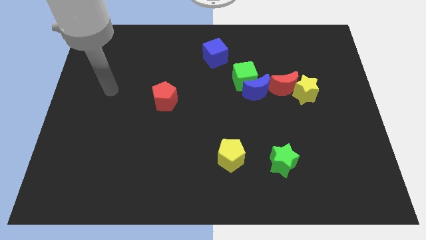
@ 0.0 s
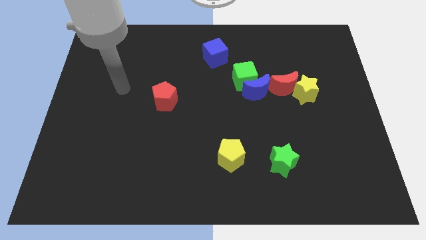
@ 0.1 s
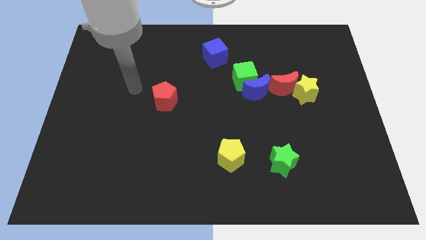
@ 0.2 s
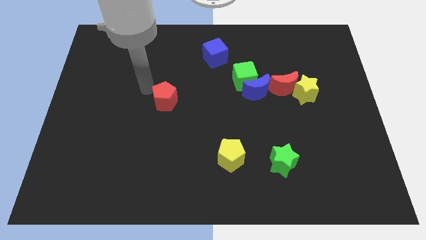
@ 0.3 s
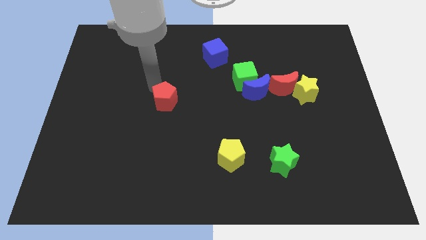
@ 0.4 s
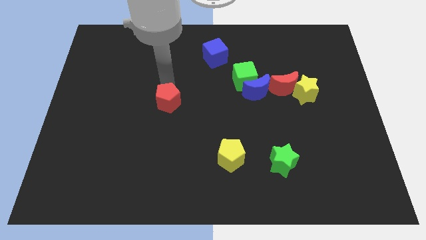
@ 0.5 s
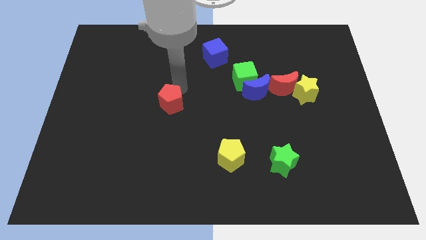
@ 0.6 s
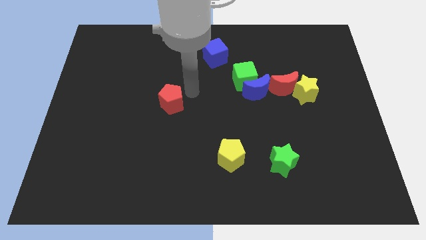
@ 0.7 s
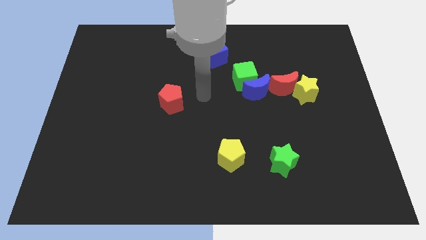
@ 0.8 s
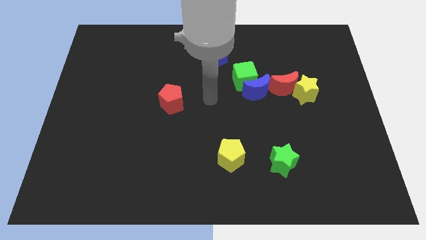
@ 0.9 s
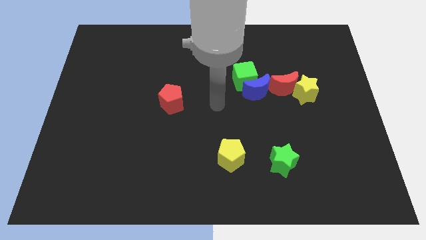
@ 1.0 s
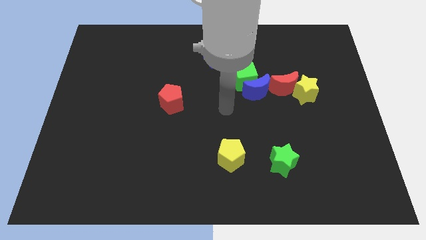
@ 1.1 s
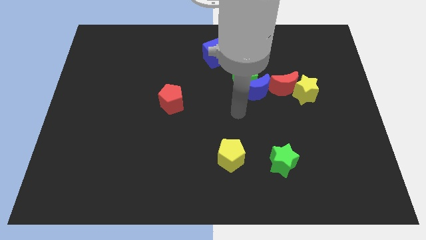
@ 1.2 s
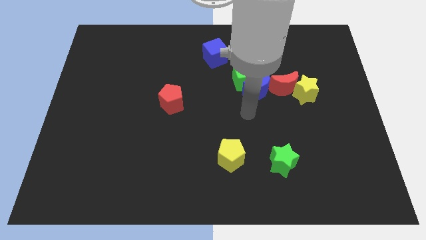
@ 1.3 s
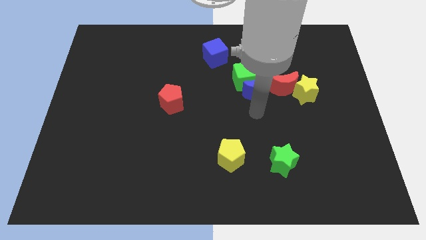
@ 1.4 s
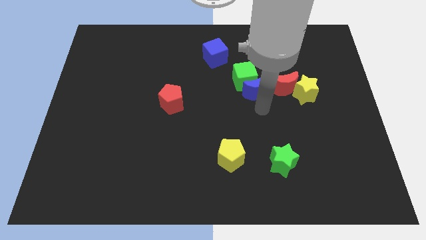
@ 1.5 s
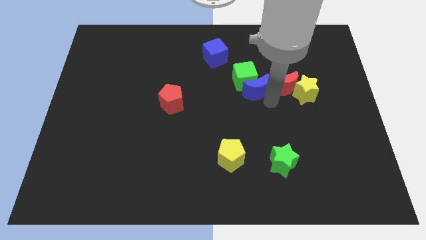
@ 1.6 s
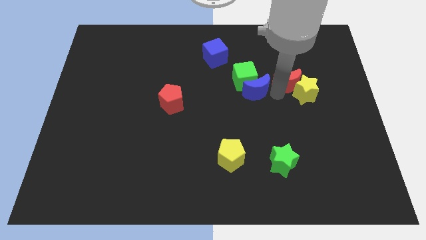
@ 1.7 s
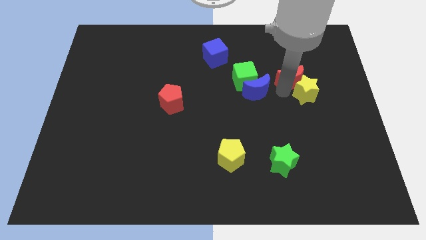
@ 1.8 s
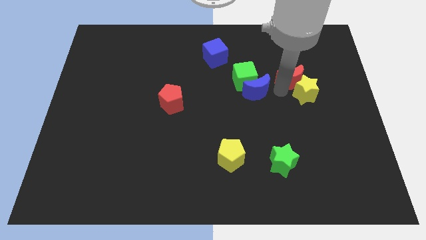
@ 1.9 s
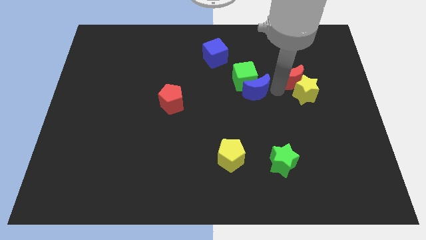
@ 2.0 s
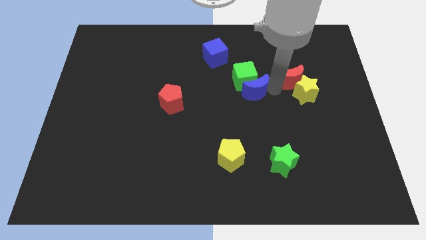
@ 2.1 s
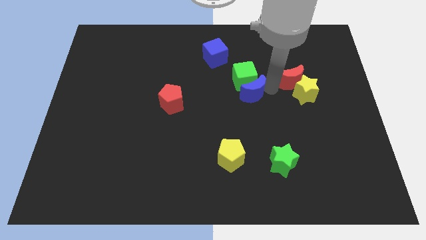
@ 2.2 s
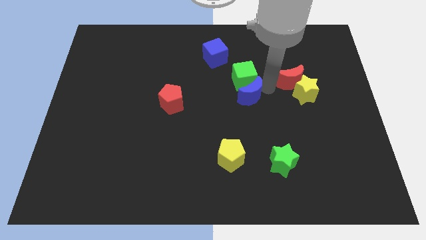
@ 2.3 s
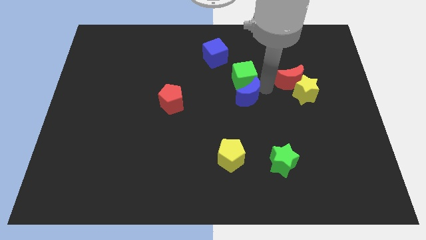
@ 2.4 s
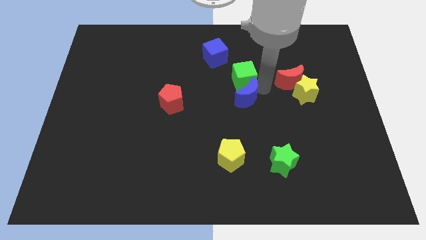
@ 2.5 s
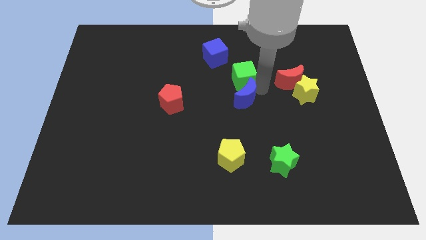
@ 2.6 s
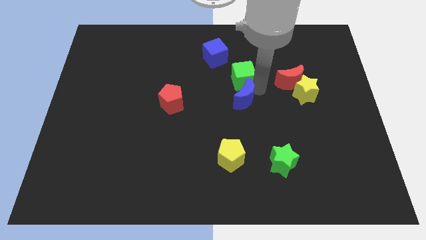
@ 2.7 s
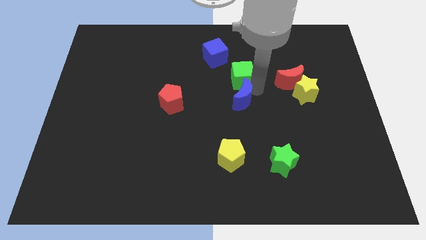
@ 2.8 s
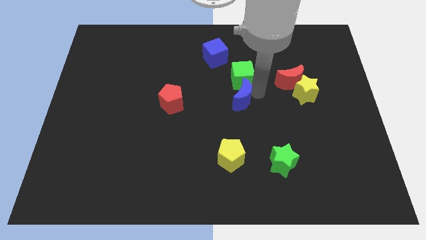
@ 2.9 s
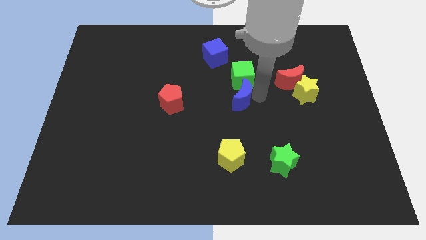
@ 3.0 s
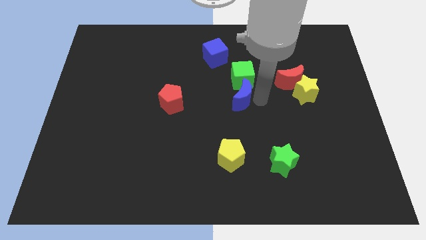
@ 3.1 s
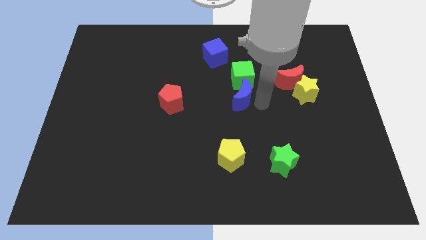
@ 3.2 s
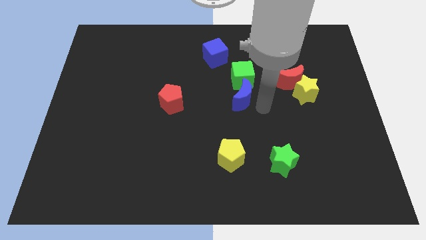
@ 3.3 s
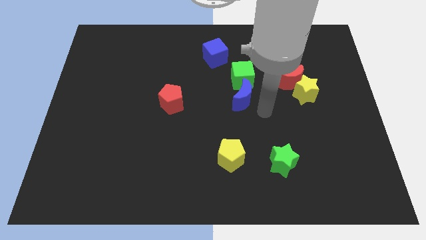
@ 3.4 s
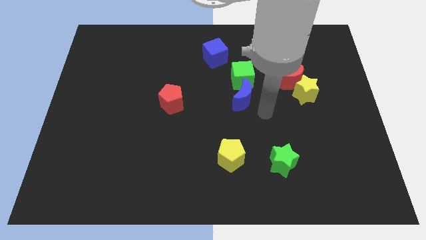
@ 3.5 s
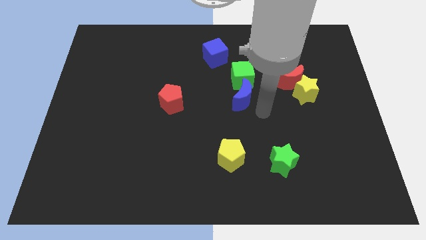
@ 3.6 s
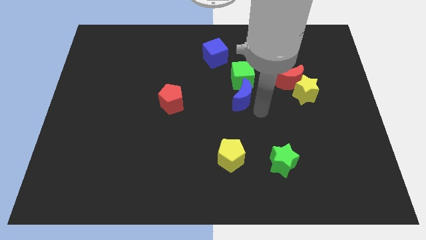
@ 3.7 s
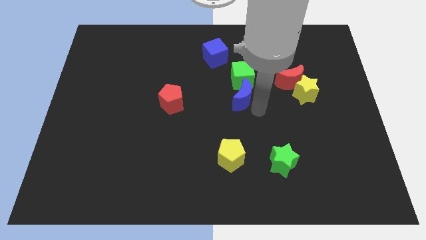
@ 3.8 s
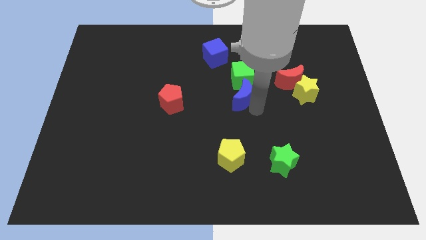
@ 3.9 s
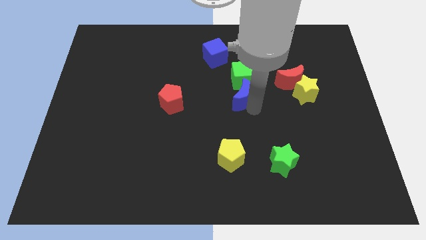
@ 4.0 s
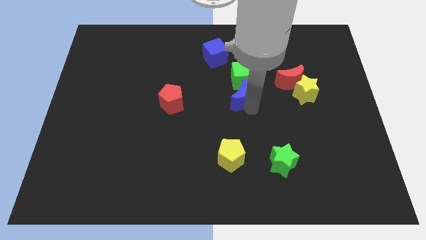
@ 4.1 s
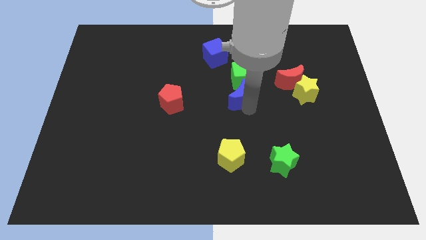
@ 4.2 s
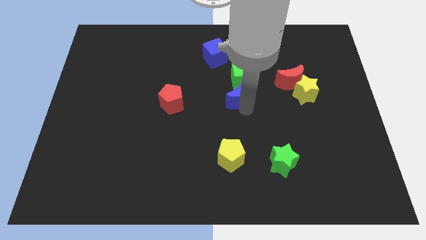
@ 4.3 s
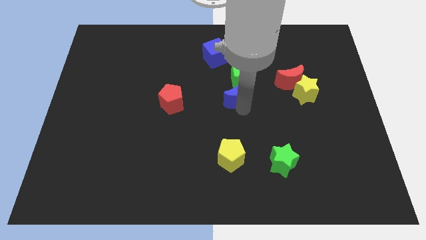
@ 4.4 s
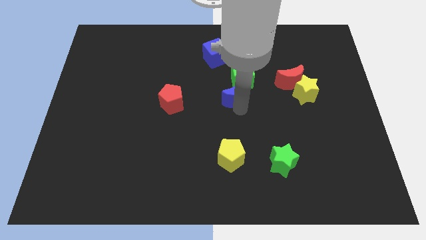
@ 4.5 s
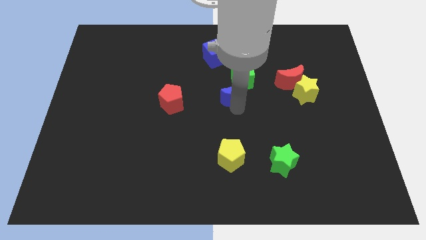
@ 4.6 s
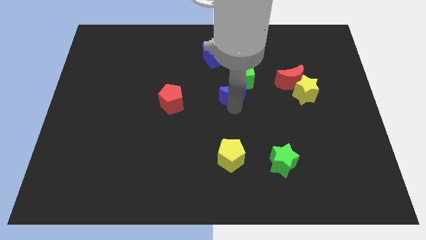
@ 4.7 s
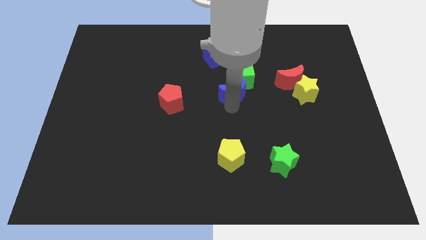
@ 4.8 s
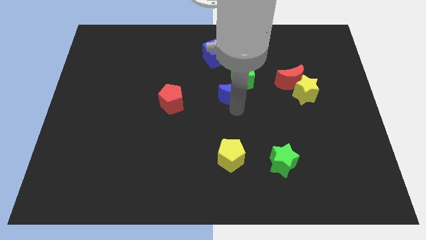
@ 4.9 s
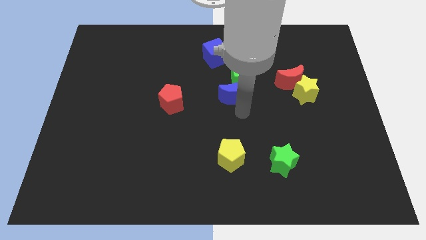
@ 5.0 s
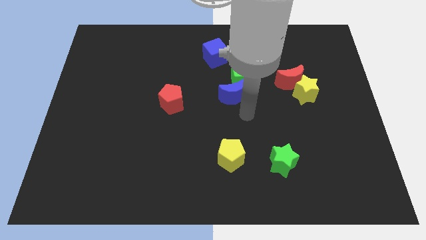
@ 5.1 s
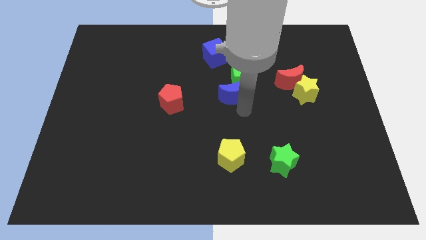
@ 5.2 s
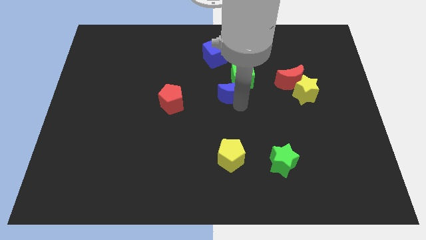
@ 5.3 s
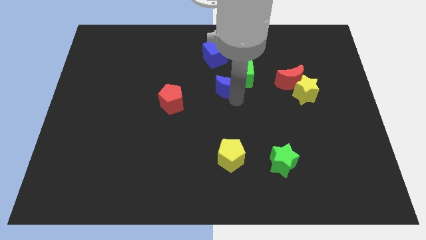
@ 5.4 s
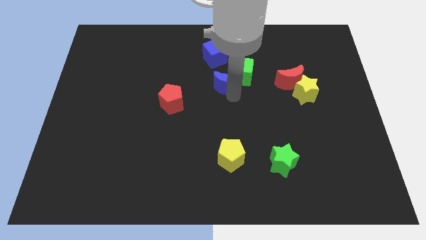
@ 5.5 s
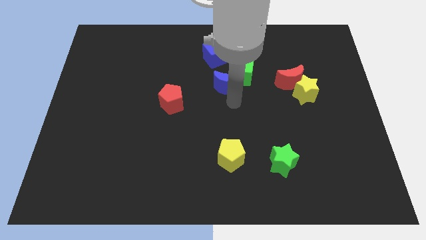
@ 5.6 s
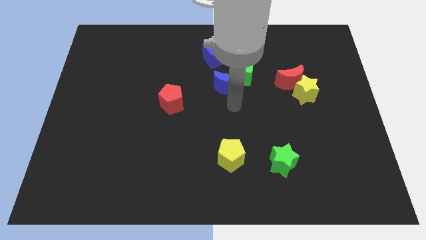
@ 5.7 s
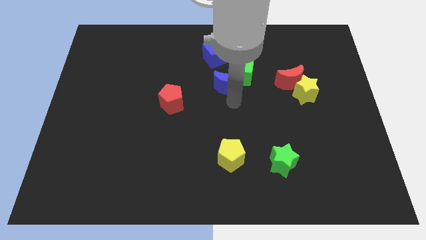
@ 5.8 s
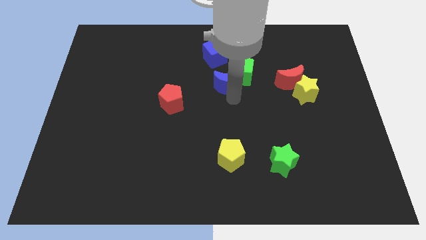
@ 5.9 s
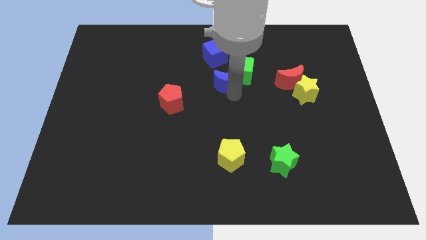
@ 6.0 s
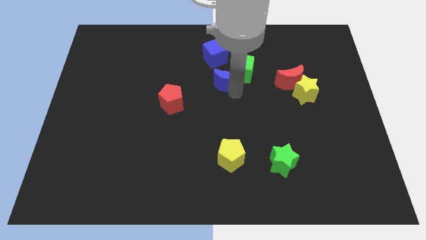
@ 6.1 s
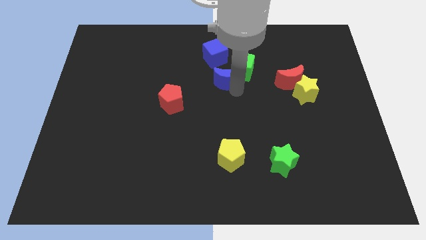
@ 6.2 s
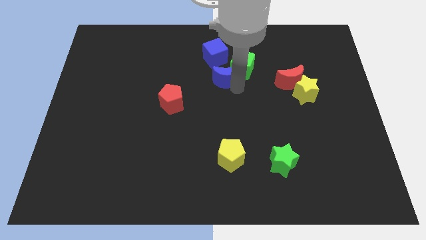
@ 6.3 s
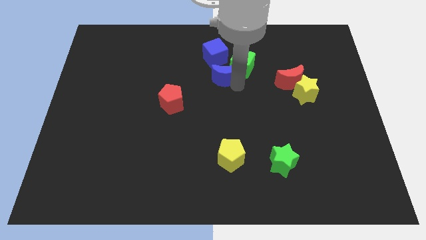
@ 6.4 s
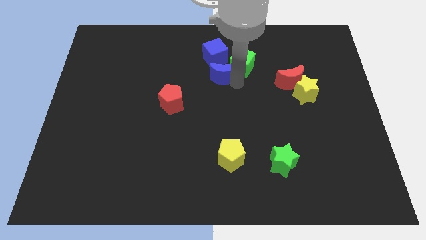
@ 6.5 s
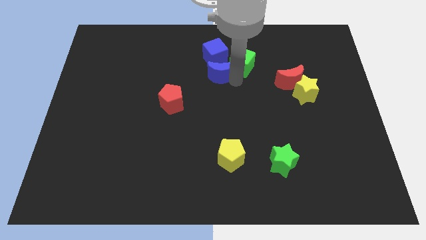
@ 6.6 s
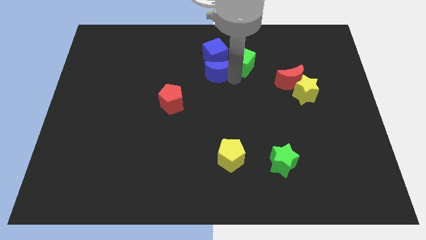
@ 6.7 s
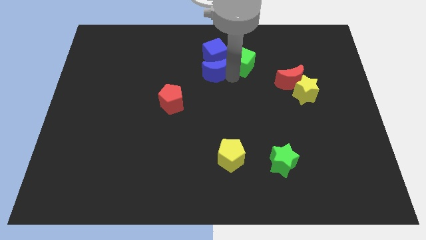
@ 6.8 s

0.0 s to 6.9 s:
move the blue moon next to the blue cube

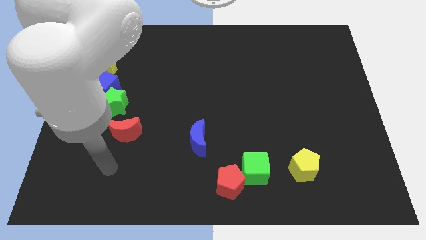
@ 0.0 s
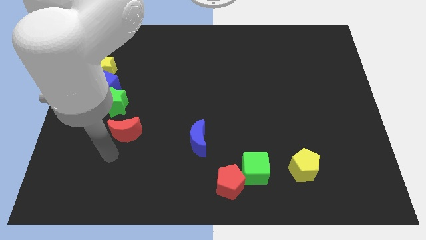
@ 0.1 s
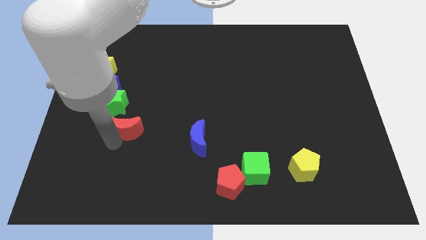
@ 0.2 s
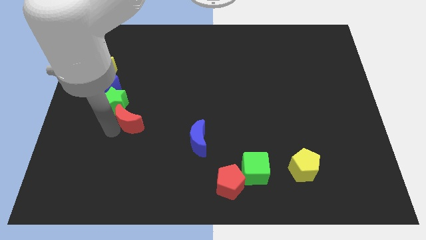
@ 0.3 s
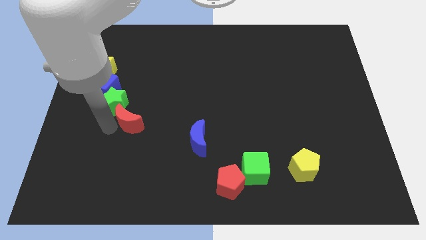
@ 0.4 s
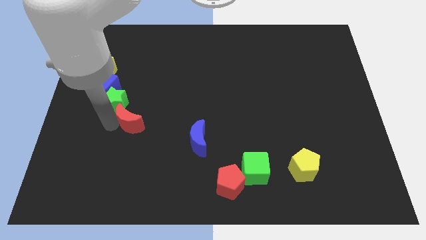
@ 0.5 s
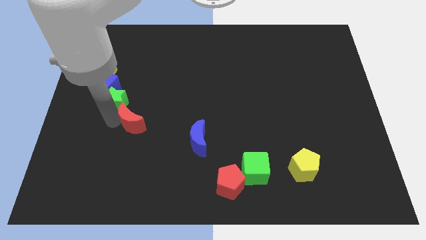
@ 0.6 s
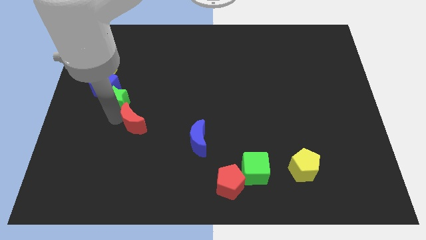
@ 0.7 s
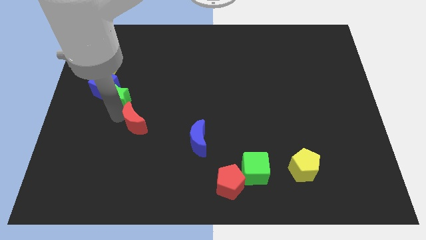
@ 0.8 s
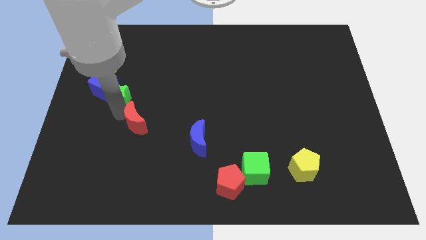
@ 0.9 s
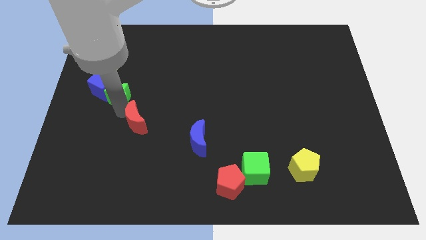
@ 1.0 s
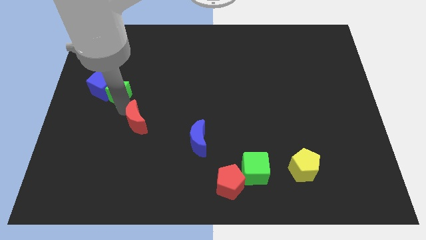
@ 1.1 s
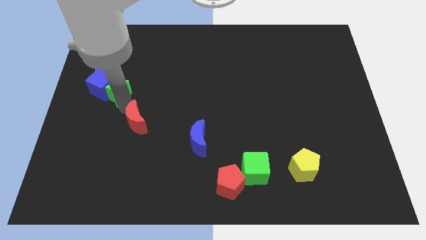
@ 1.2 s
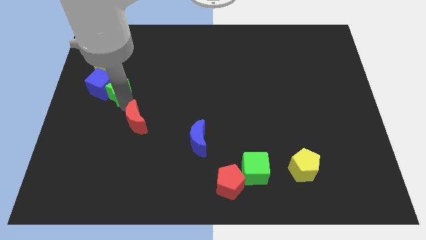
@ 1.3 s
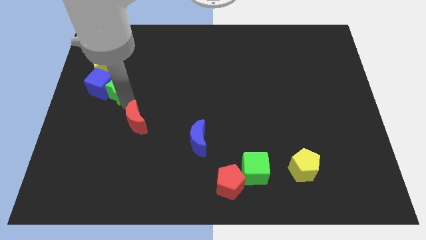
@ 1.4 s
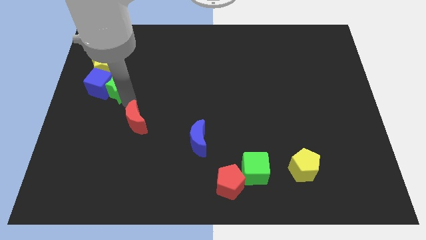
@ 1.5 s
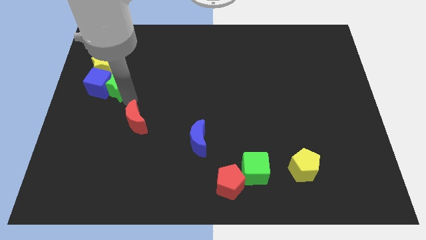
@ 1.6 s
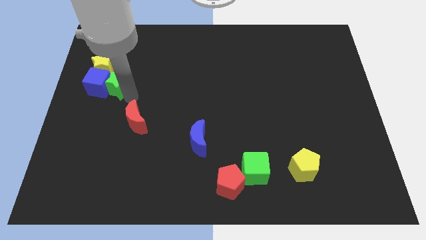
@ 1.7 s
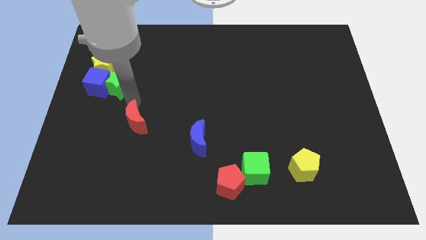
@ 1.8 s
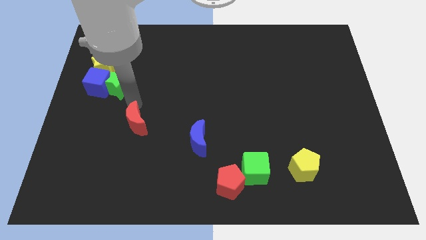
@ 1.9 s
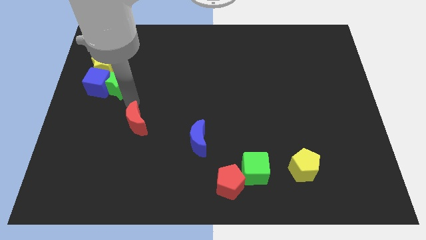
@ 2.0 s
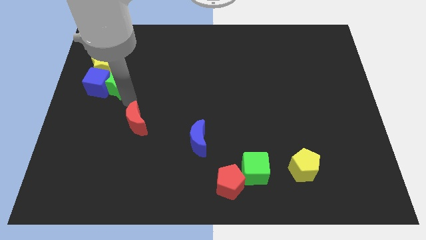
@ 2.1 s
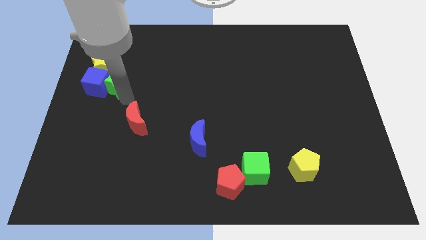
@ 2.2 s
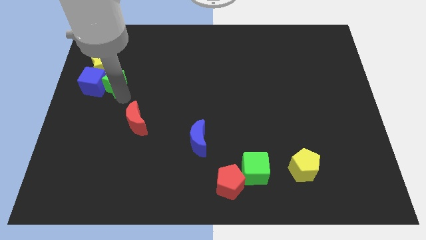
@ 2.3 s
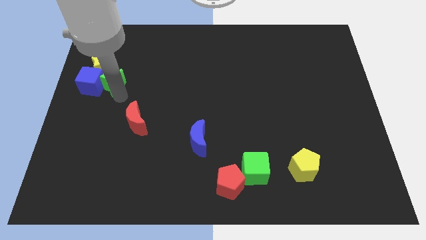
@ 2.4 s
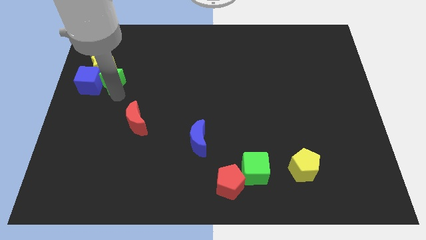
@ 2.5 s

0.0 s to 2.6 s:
slide the green star next to the yellow star
